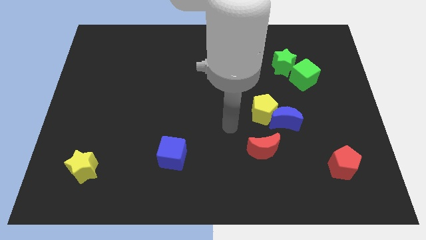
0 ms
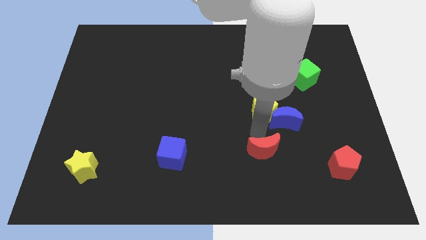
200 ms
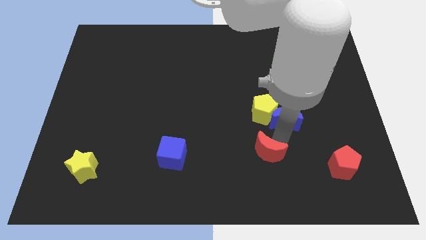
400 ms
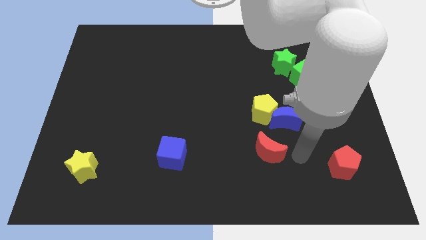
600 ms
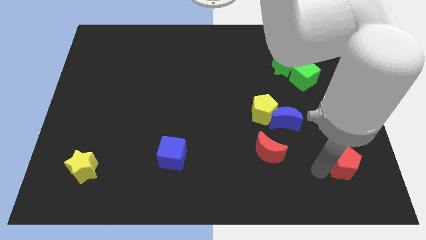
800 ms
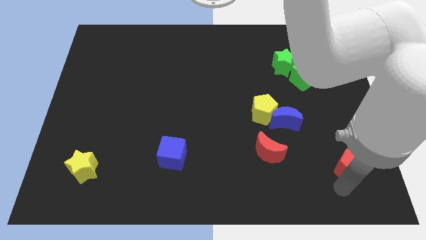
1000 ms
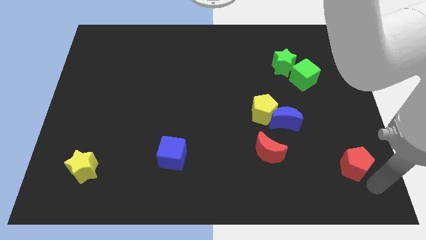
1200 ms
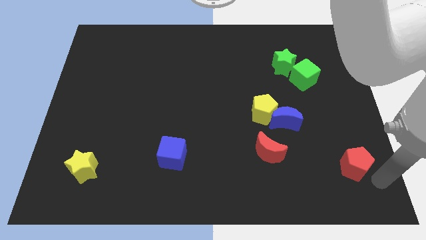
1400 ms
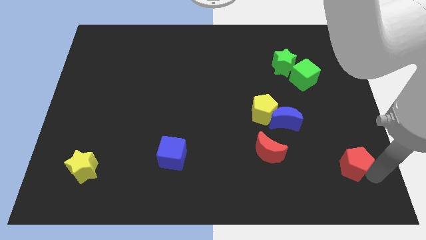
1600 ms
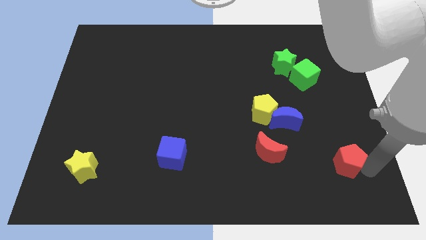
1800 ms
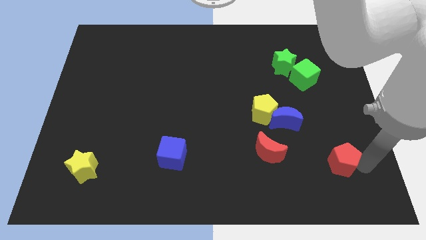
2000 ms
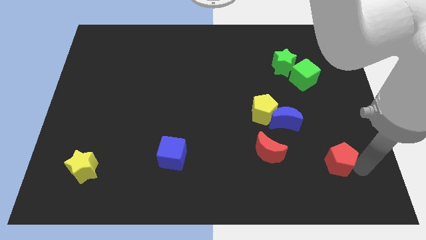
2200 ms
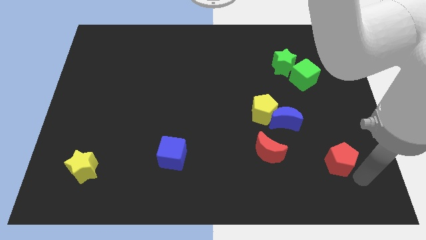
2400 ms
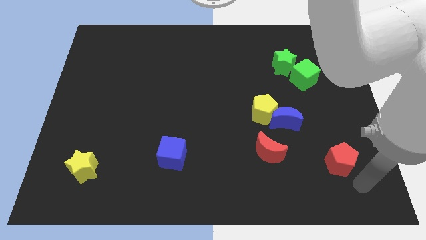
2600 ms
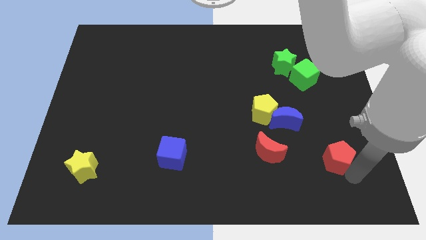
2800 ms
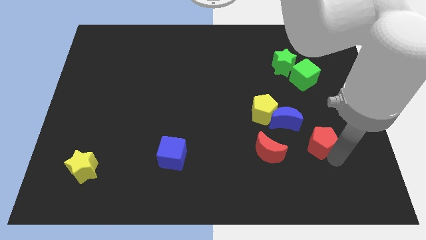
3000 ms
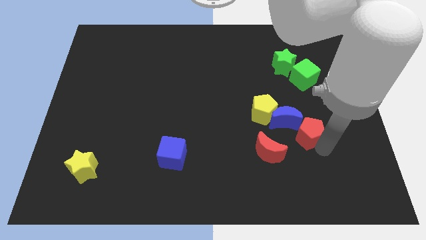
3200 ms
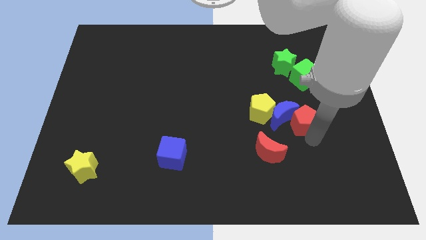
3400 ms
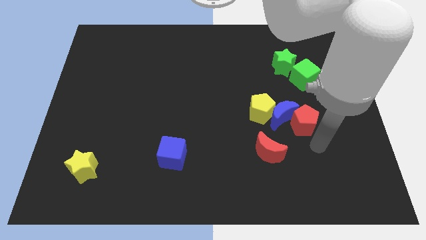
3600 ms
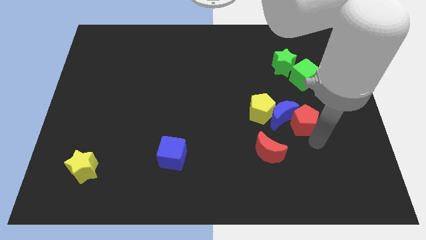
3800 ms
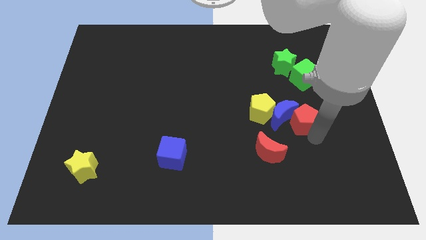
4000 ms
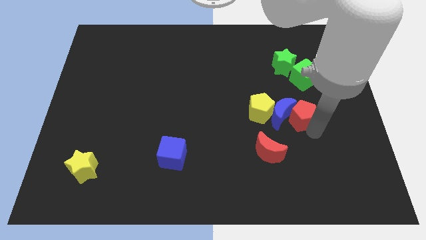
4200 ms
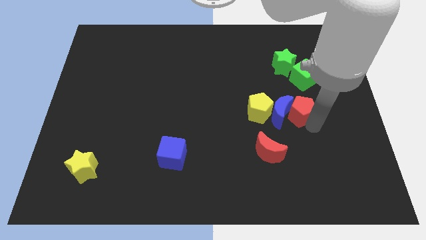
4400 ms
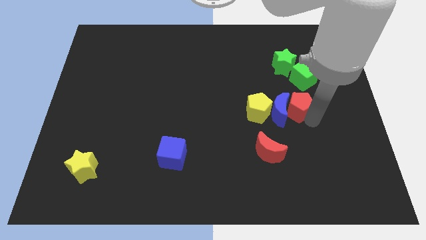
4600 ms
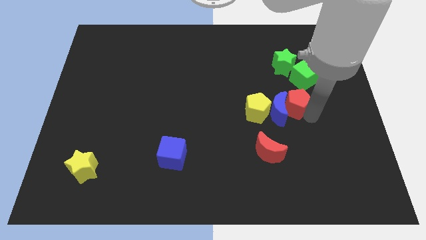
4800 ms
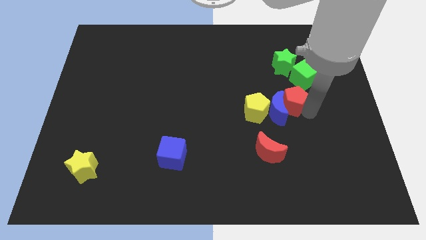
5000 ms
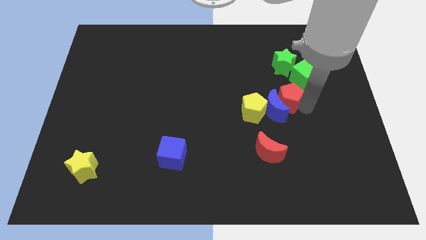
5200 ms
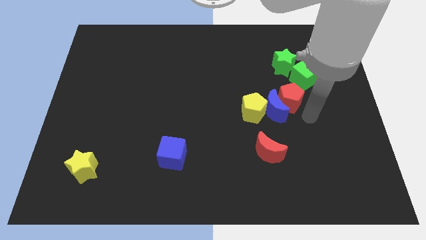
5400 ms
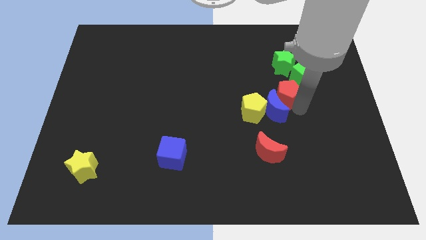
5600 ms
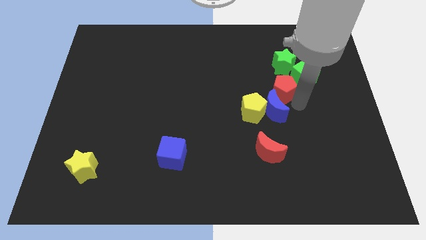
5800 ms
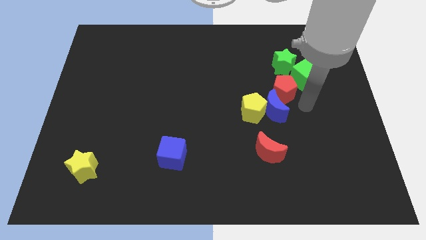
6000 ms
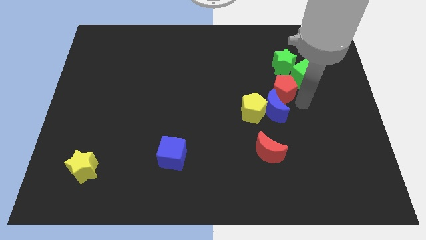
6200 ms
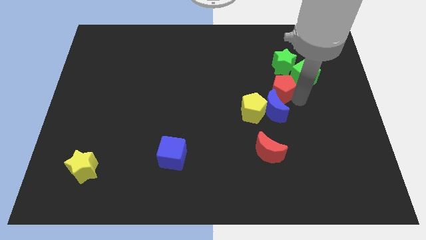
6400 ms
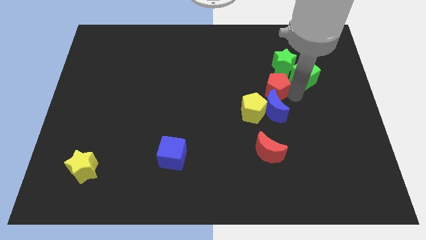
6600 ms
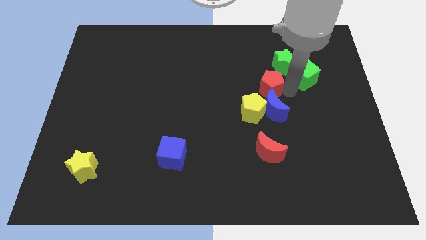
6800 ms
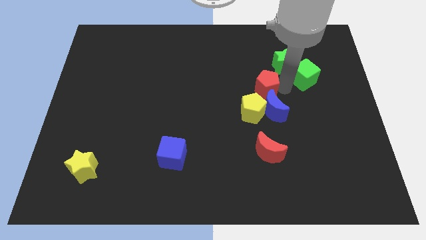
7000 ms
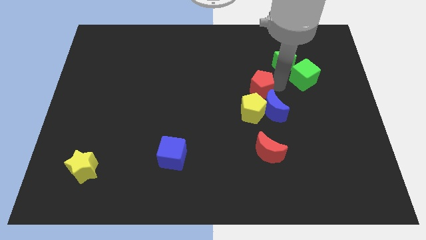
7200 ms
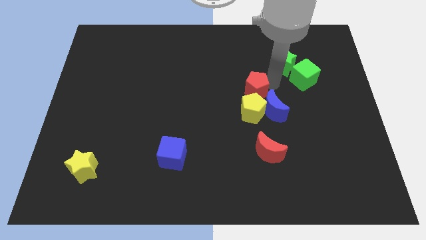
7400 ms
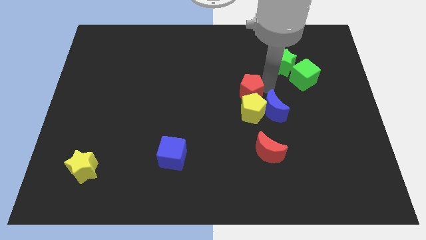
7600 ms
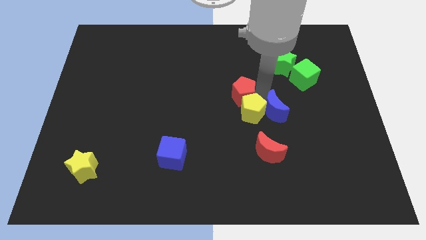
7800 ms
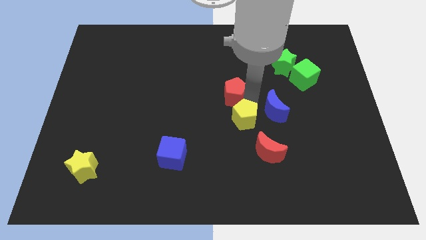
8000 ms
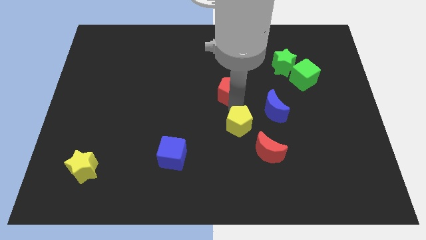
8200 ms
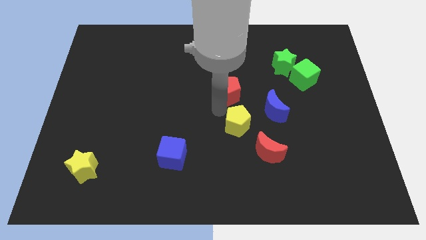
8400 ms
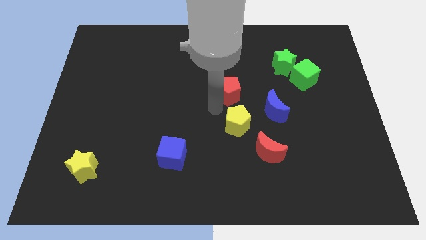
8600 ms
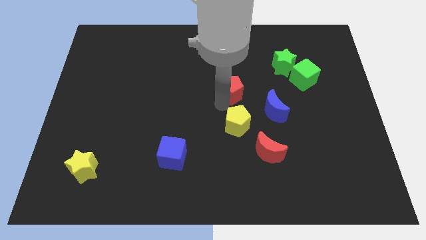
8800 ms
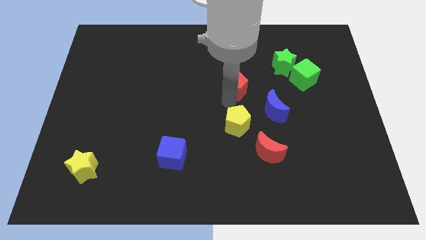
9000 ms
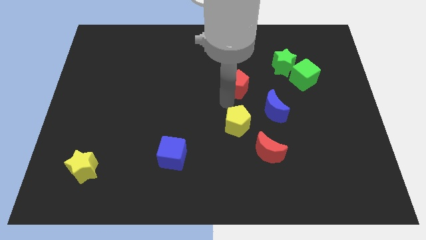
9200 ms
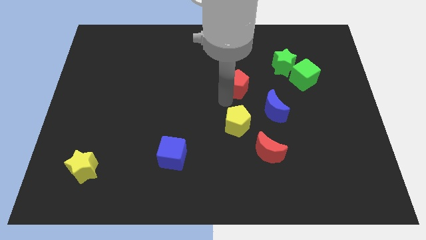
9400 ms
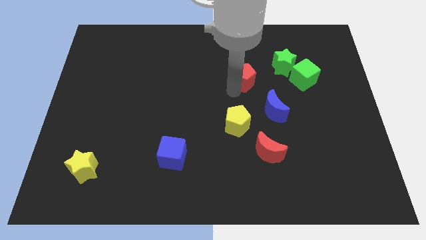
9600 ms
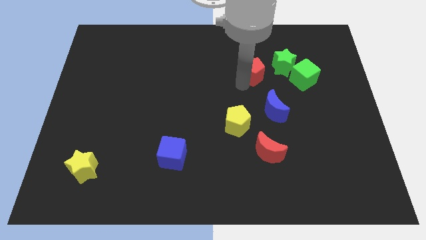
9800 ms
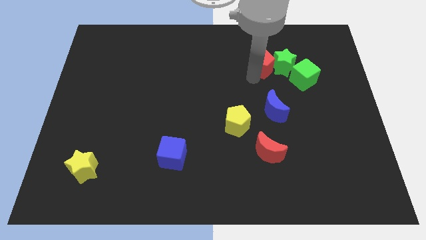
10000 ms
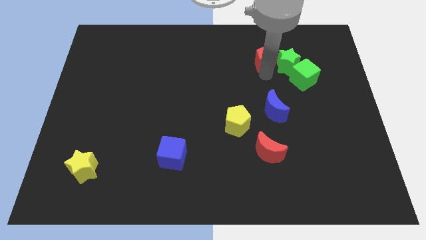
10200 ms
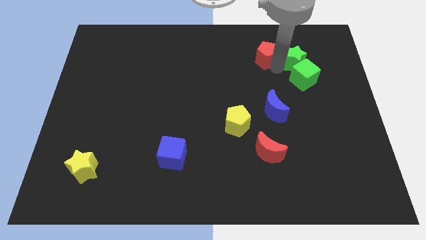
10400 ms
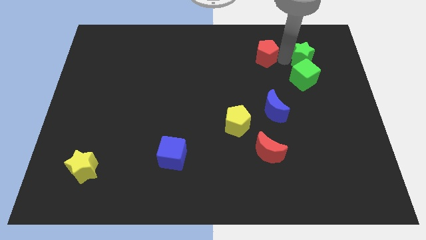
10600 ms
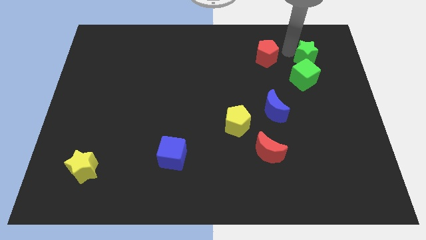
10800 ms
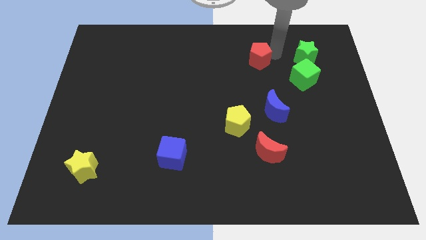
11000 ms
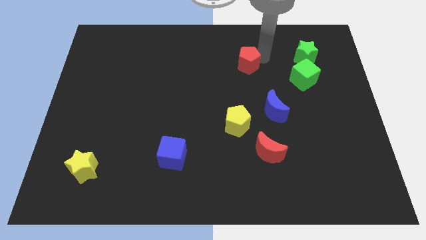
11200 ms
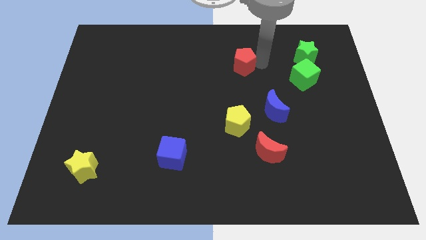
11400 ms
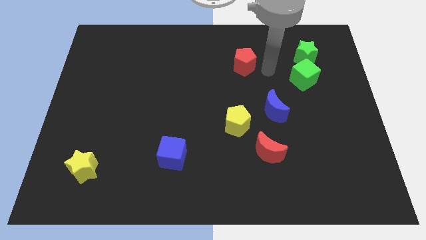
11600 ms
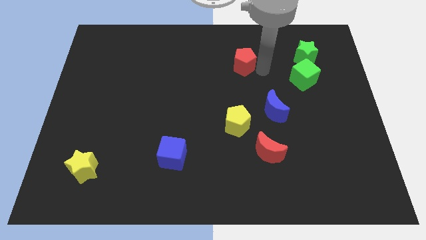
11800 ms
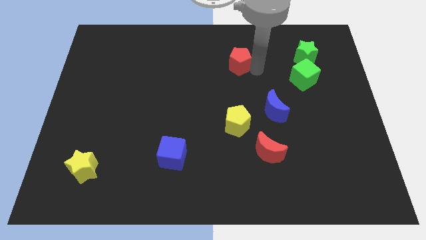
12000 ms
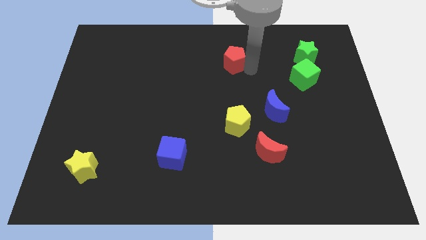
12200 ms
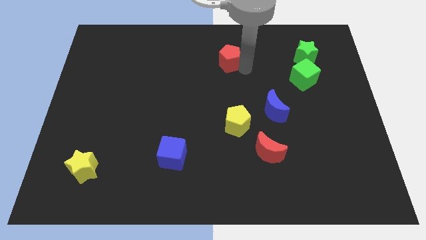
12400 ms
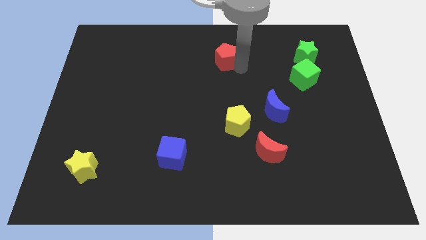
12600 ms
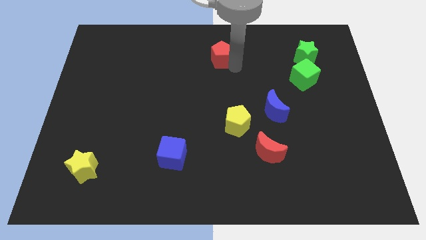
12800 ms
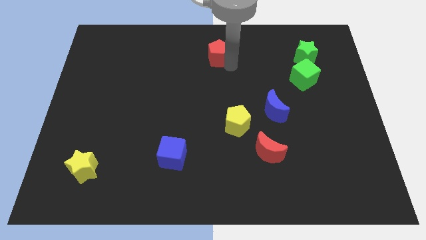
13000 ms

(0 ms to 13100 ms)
push the red pentagon to the towards your base
